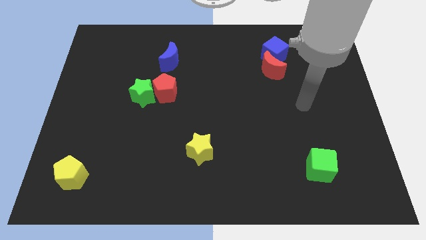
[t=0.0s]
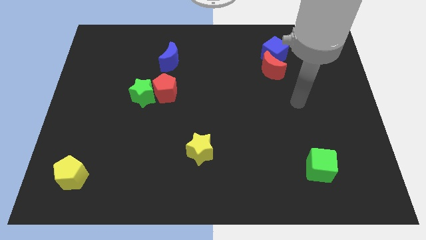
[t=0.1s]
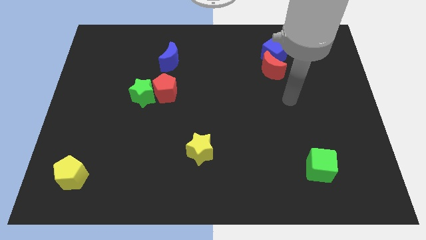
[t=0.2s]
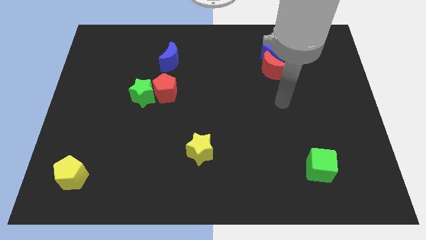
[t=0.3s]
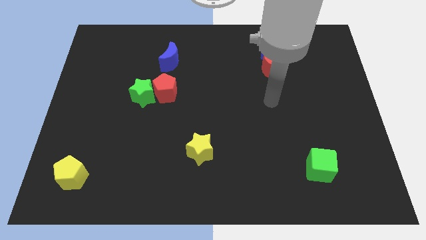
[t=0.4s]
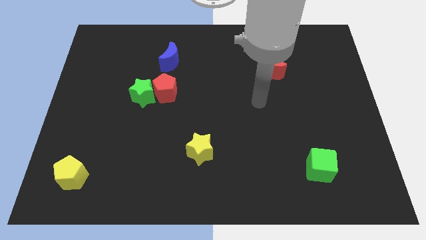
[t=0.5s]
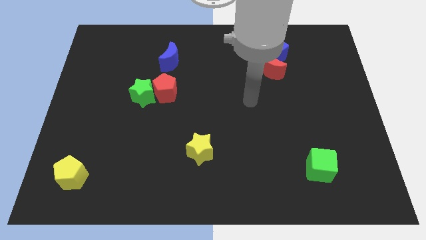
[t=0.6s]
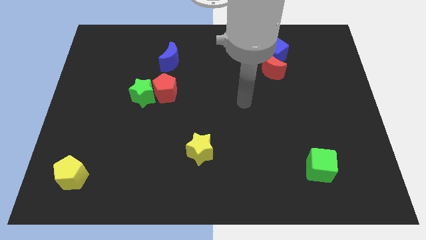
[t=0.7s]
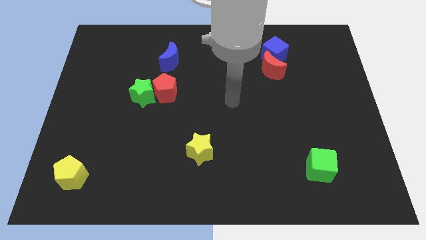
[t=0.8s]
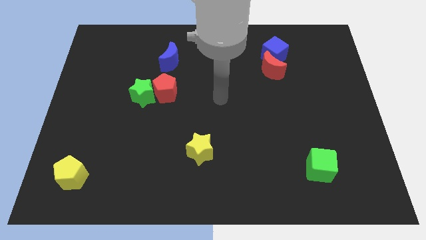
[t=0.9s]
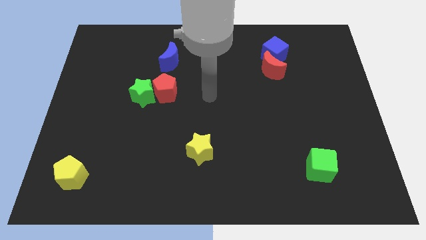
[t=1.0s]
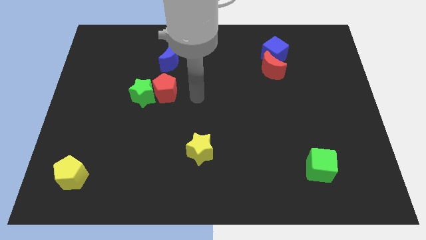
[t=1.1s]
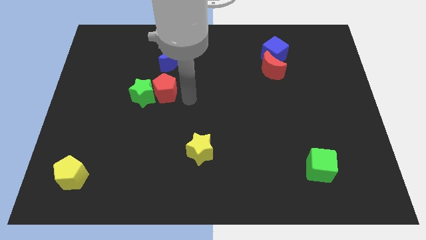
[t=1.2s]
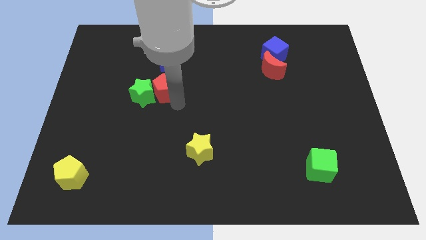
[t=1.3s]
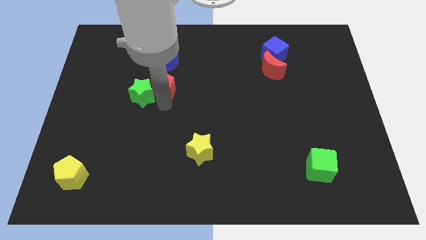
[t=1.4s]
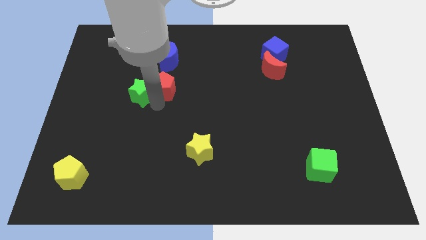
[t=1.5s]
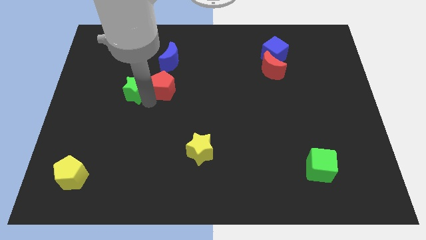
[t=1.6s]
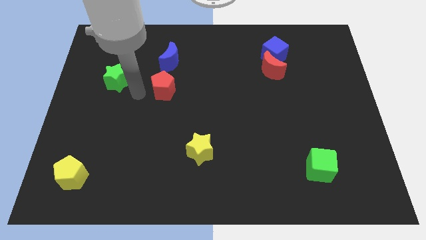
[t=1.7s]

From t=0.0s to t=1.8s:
pull the red pentagon apart from the green star

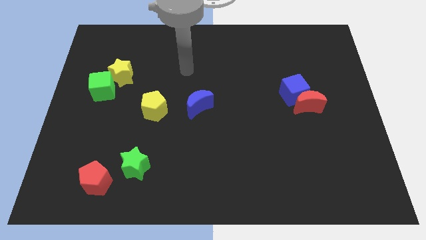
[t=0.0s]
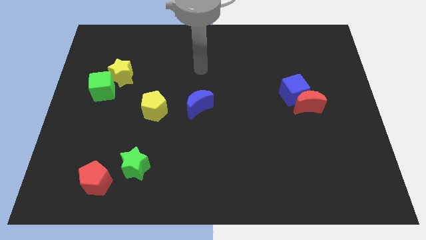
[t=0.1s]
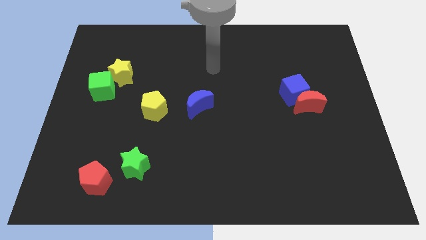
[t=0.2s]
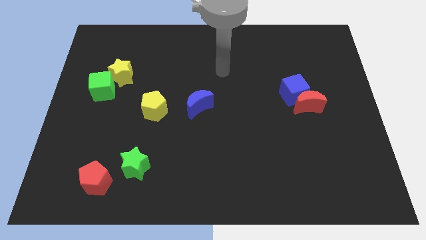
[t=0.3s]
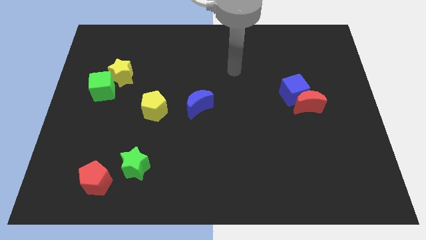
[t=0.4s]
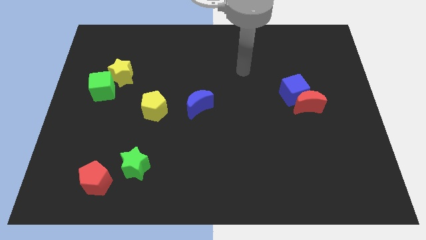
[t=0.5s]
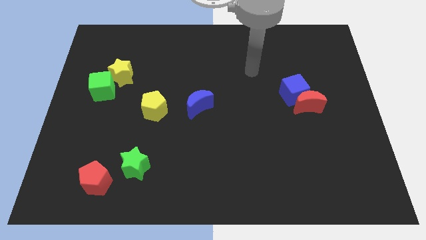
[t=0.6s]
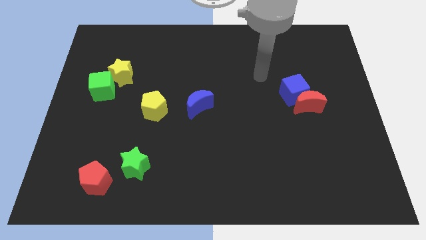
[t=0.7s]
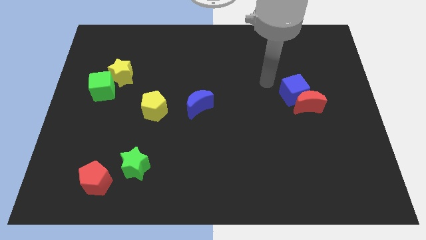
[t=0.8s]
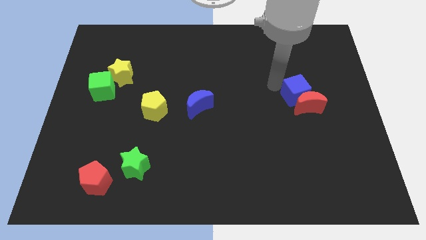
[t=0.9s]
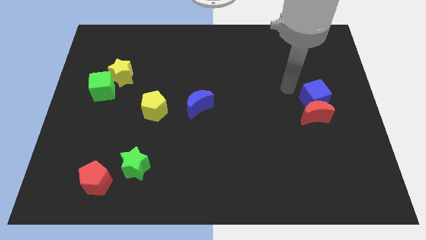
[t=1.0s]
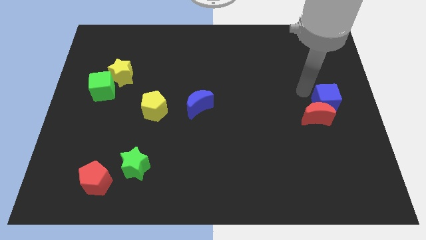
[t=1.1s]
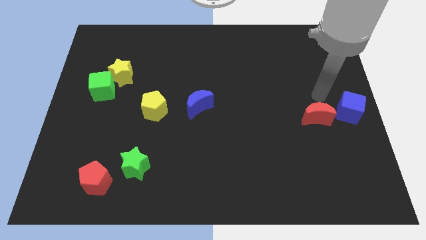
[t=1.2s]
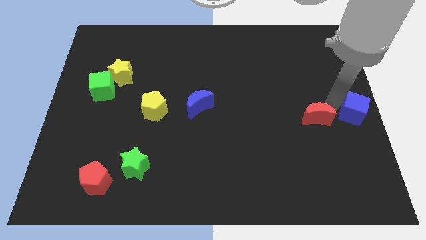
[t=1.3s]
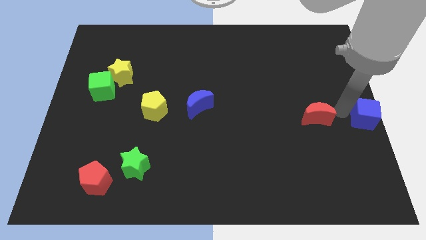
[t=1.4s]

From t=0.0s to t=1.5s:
move the red moon away from the blue cube

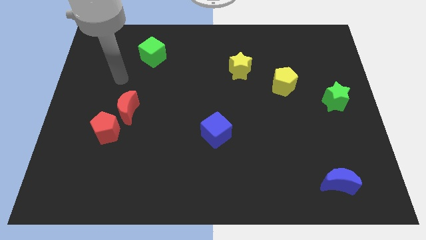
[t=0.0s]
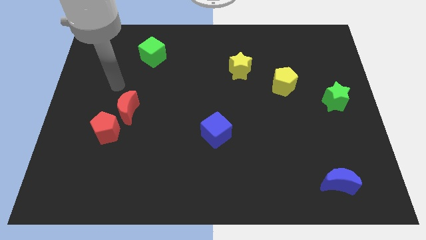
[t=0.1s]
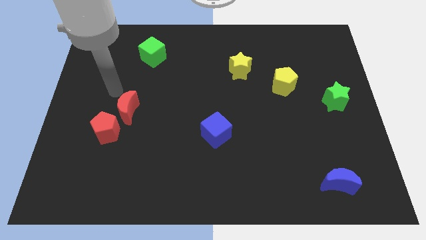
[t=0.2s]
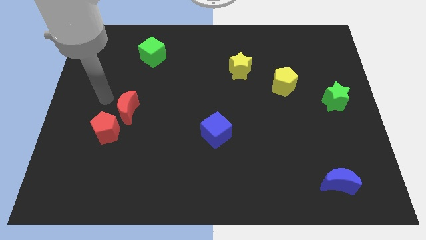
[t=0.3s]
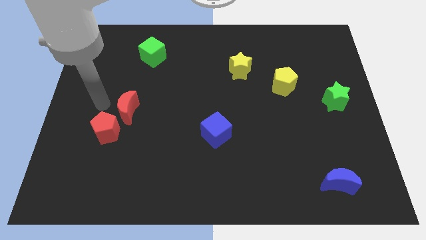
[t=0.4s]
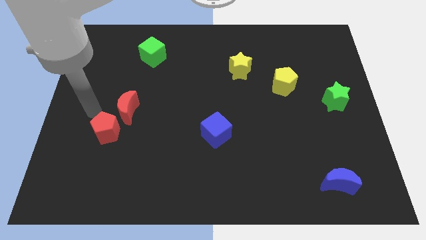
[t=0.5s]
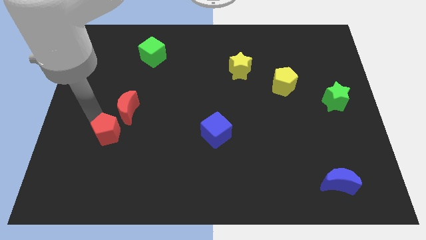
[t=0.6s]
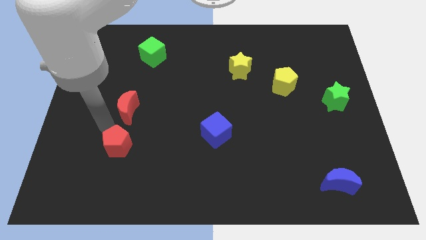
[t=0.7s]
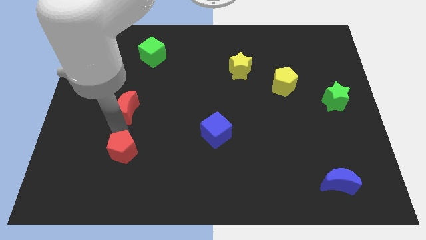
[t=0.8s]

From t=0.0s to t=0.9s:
separate the red moon from the red pentagon

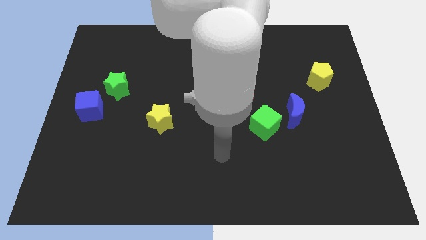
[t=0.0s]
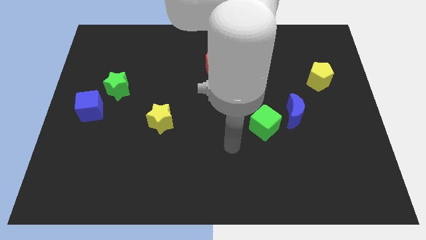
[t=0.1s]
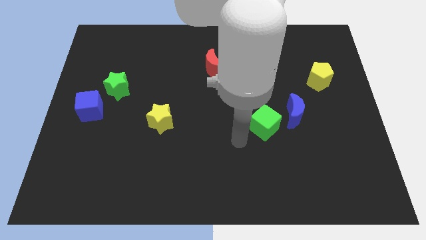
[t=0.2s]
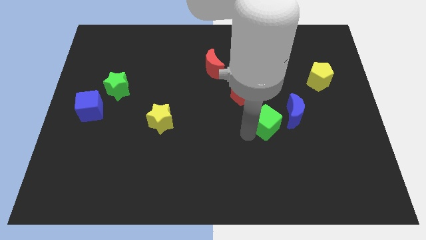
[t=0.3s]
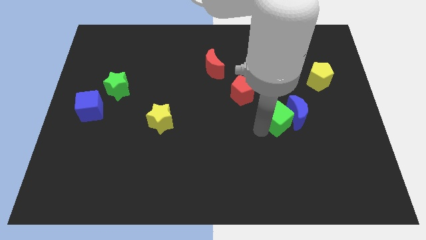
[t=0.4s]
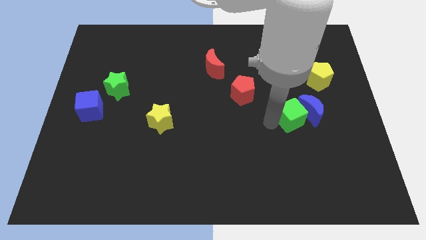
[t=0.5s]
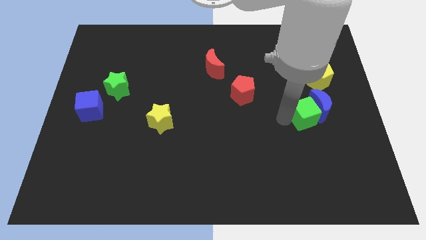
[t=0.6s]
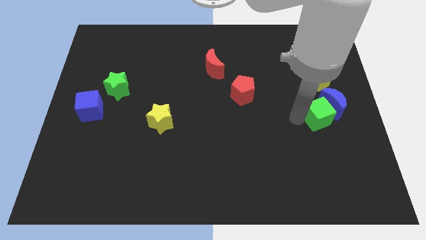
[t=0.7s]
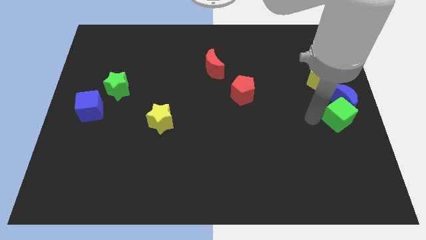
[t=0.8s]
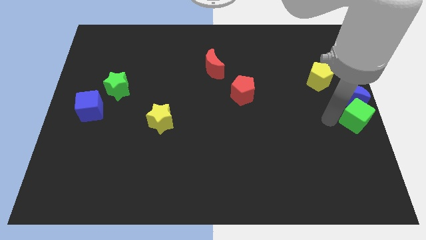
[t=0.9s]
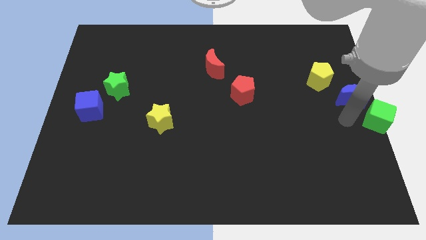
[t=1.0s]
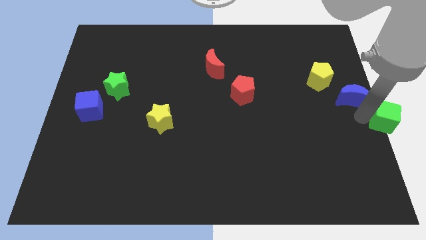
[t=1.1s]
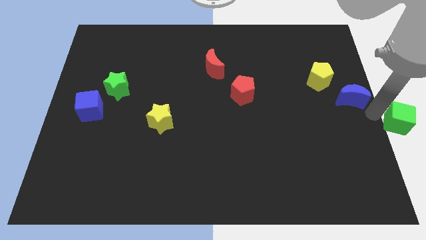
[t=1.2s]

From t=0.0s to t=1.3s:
separate the blue moon from the green cube

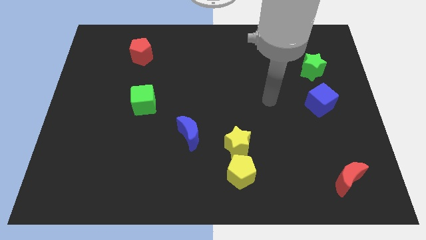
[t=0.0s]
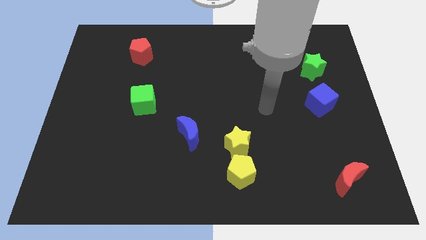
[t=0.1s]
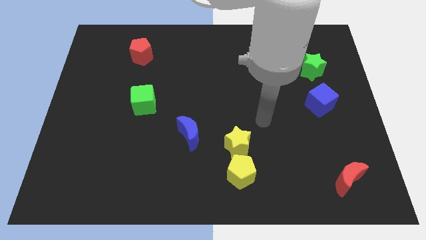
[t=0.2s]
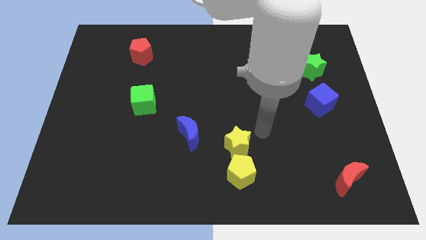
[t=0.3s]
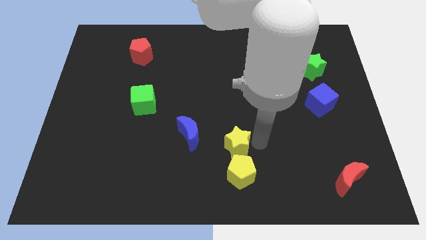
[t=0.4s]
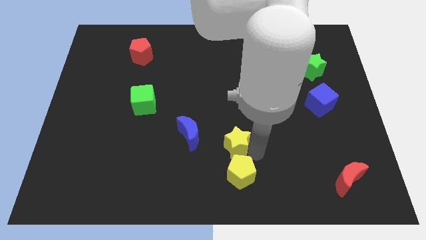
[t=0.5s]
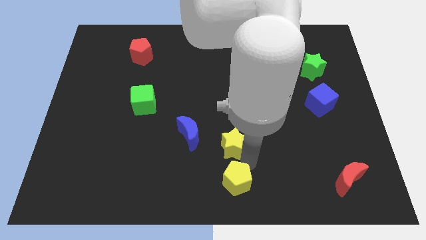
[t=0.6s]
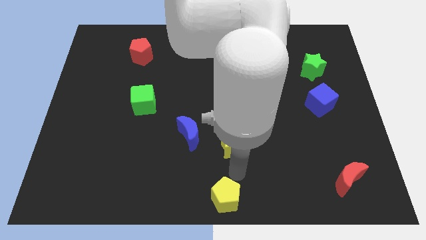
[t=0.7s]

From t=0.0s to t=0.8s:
pull the yellow star apart from the yellow pentagon

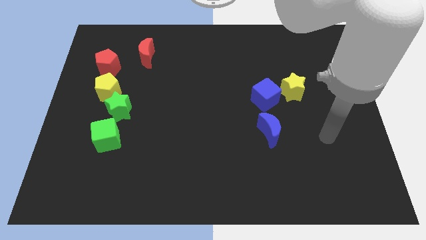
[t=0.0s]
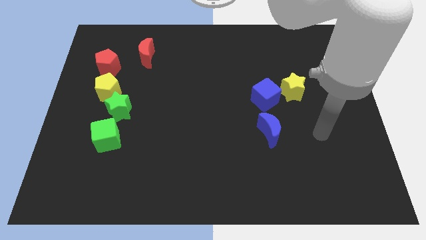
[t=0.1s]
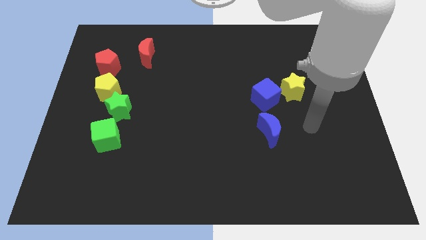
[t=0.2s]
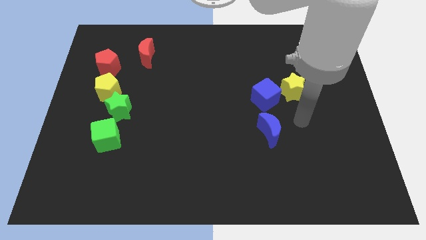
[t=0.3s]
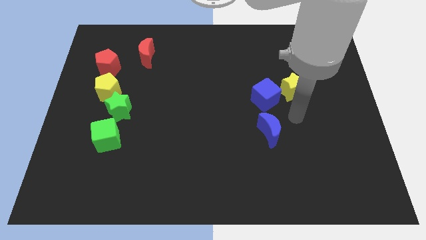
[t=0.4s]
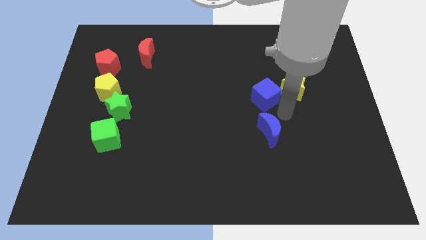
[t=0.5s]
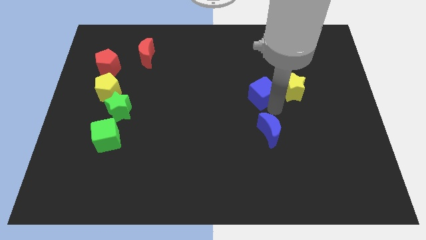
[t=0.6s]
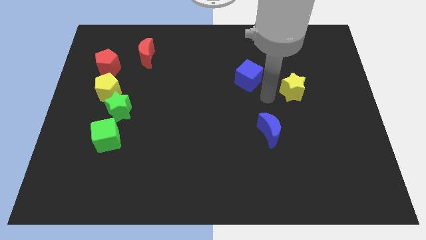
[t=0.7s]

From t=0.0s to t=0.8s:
pull the yellow star apart from the blue cube

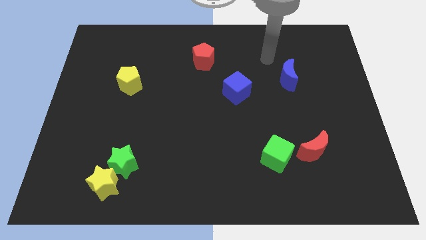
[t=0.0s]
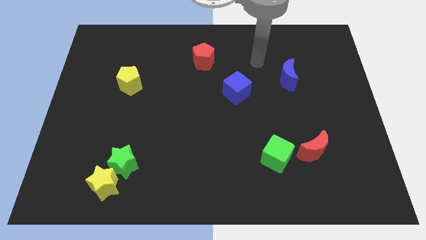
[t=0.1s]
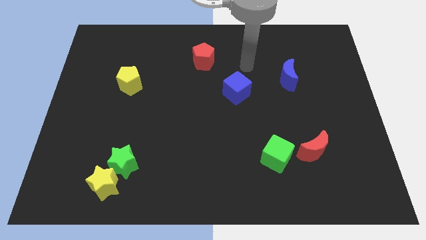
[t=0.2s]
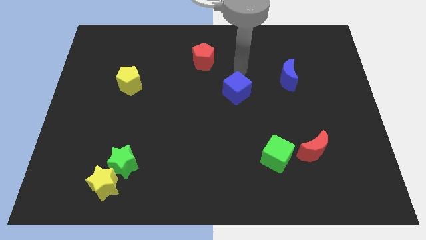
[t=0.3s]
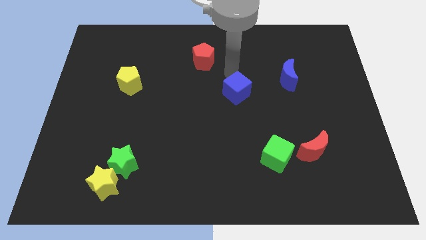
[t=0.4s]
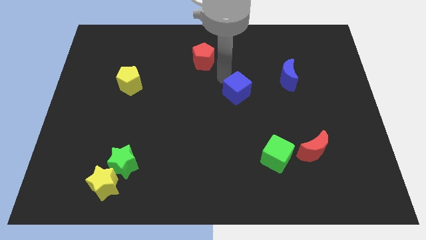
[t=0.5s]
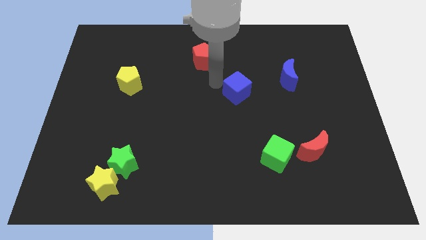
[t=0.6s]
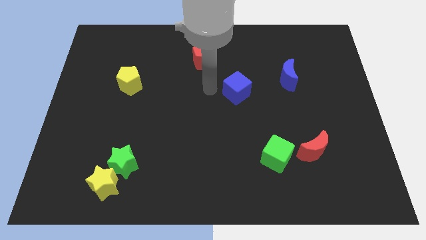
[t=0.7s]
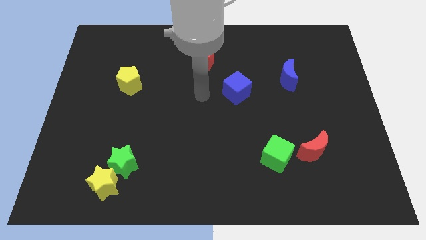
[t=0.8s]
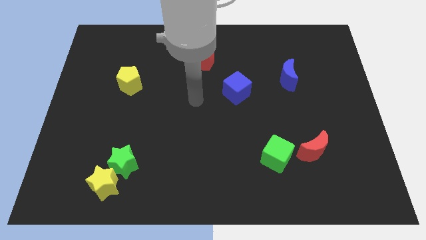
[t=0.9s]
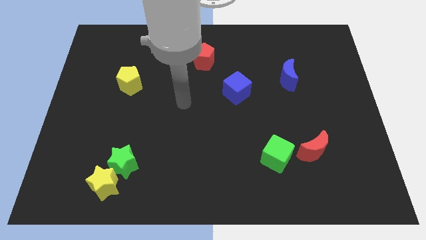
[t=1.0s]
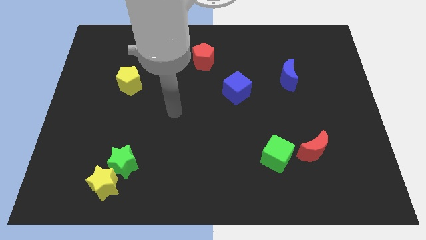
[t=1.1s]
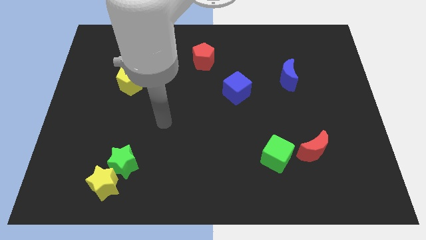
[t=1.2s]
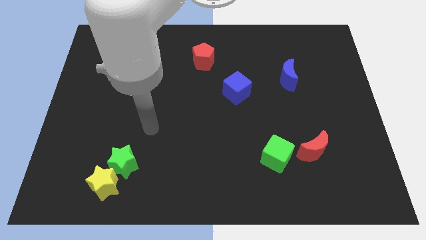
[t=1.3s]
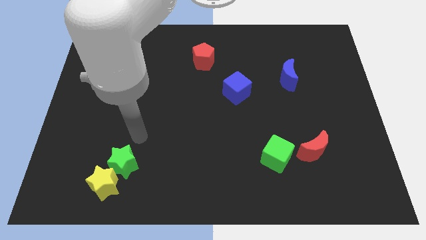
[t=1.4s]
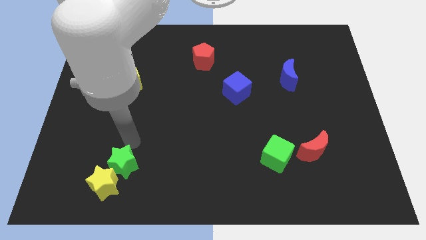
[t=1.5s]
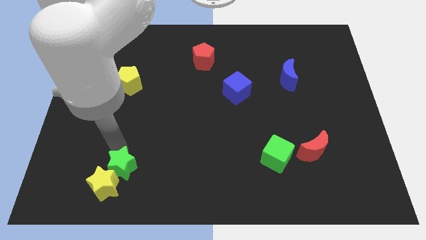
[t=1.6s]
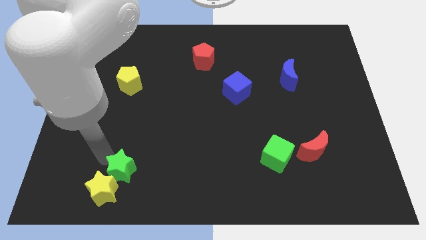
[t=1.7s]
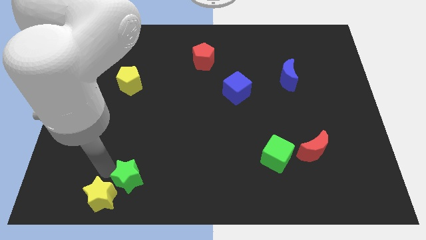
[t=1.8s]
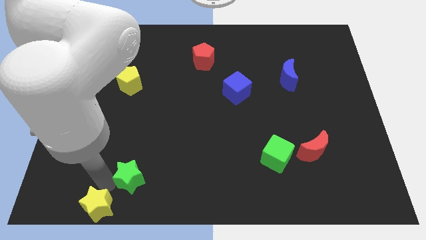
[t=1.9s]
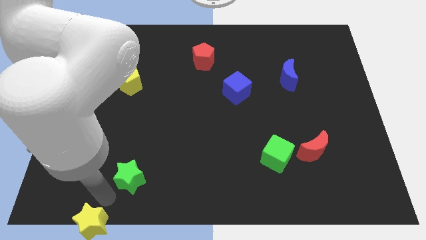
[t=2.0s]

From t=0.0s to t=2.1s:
move the green star away from the yellow star
